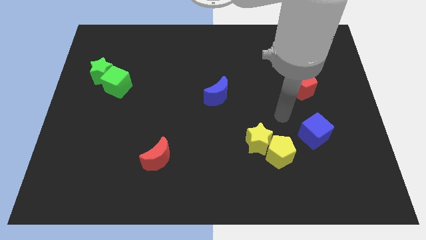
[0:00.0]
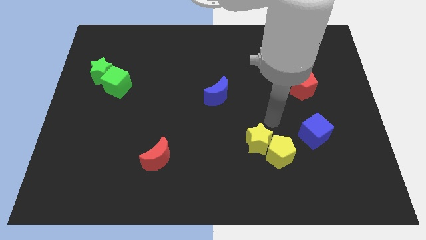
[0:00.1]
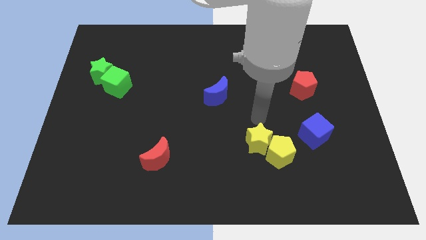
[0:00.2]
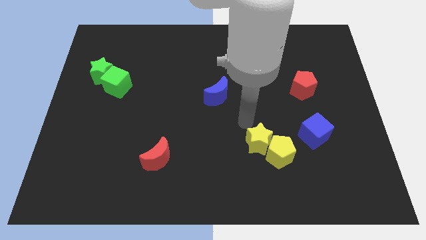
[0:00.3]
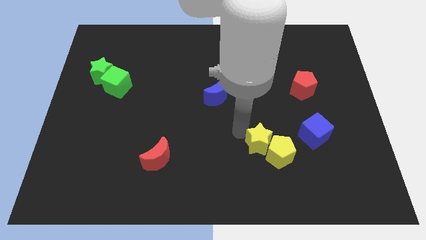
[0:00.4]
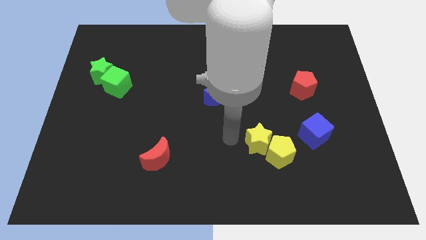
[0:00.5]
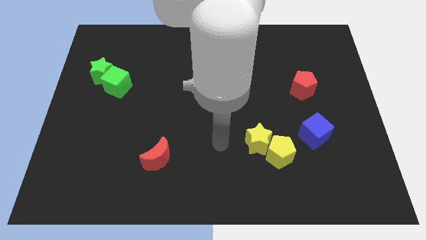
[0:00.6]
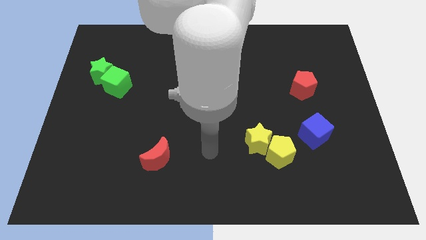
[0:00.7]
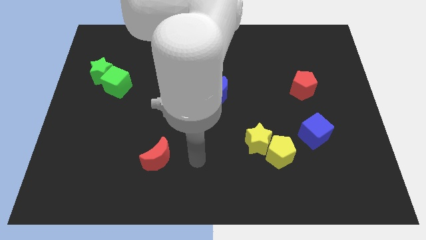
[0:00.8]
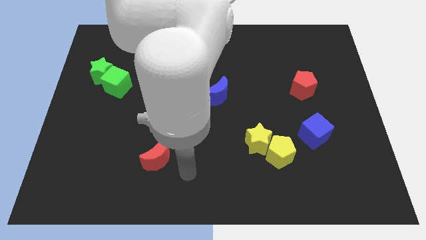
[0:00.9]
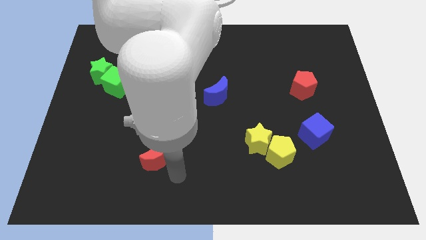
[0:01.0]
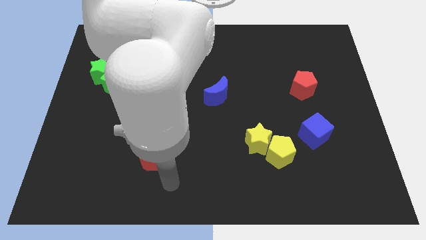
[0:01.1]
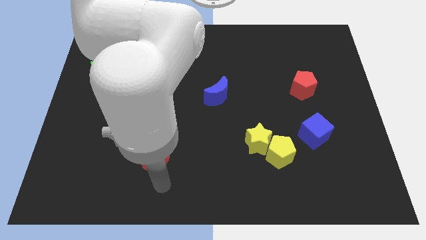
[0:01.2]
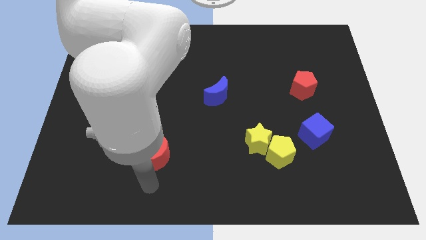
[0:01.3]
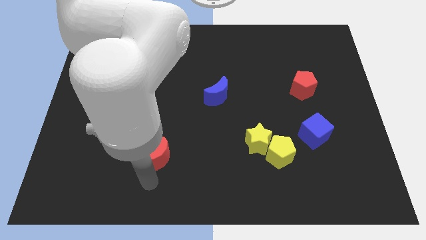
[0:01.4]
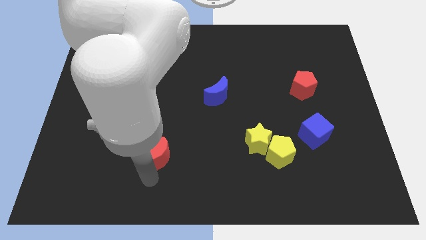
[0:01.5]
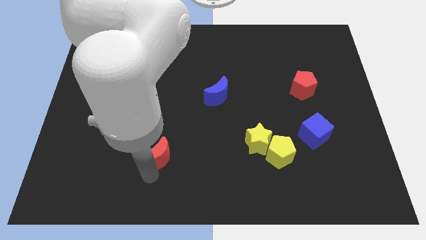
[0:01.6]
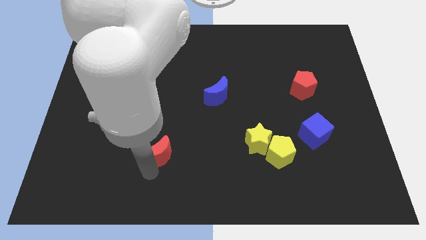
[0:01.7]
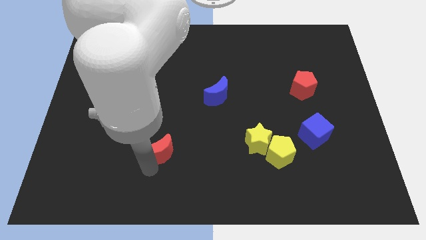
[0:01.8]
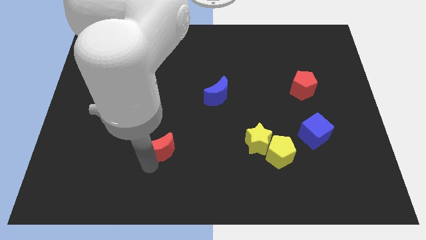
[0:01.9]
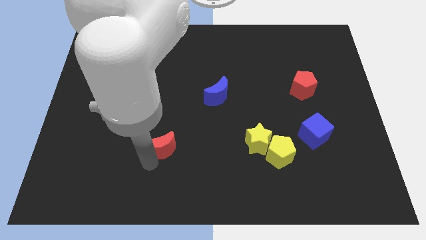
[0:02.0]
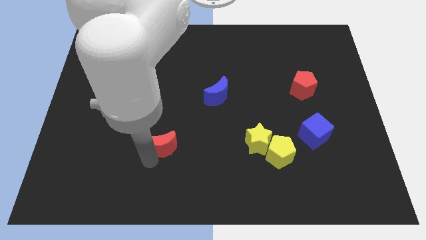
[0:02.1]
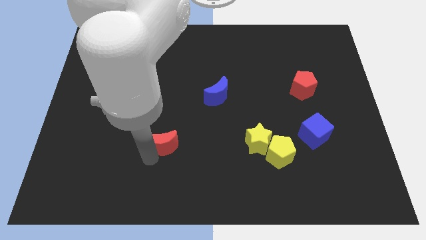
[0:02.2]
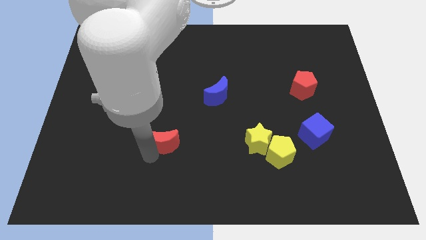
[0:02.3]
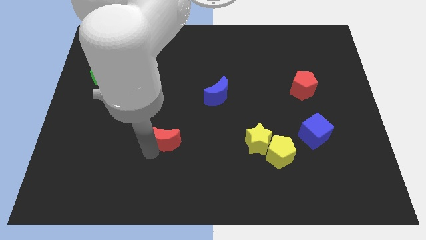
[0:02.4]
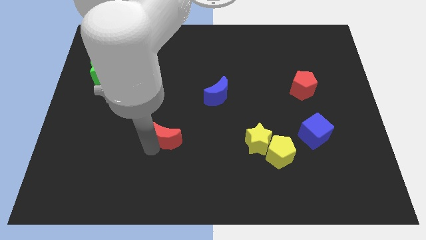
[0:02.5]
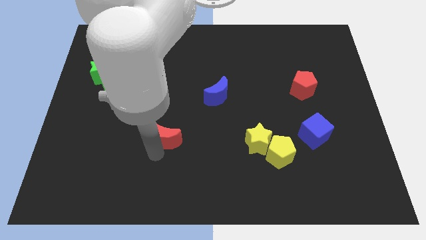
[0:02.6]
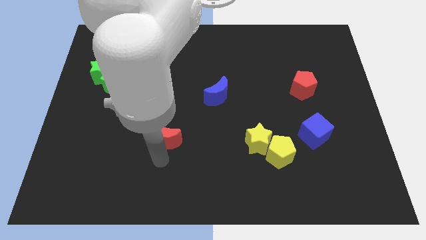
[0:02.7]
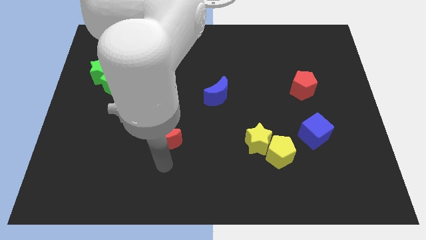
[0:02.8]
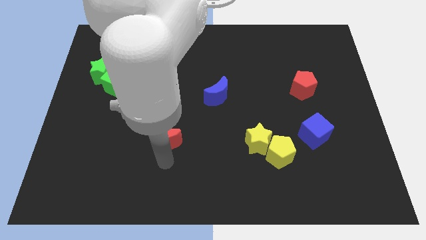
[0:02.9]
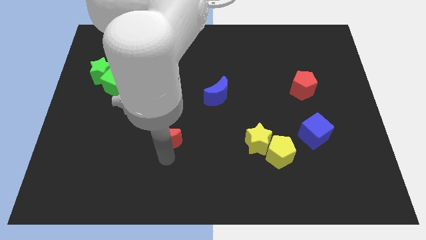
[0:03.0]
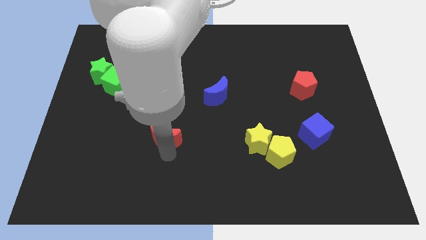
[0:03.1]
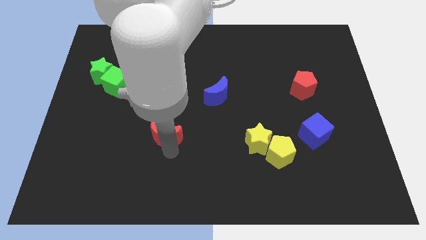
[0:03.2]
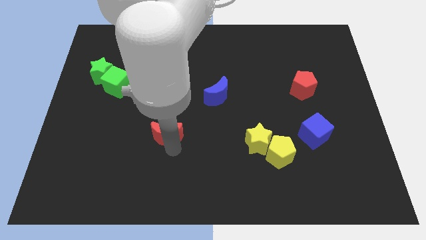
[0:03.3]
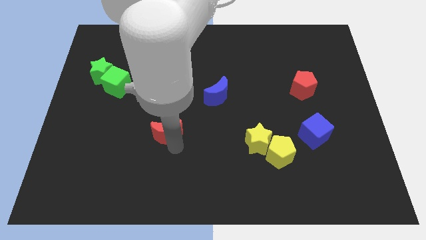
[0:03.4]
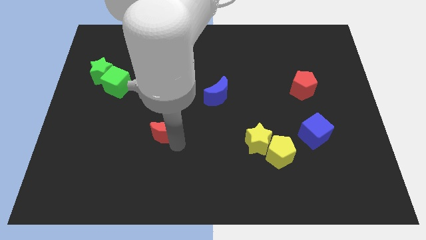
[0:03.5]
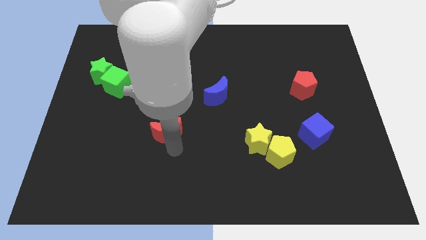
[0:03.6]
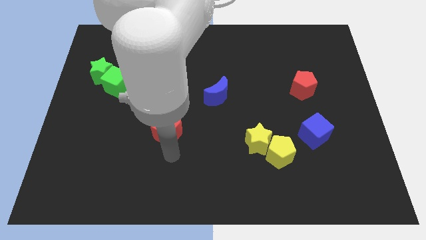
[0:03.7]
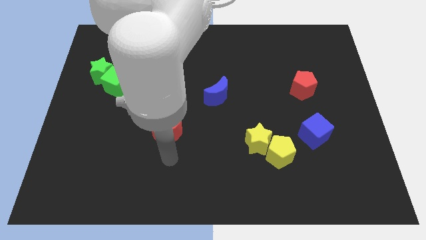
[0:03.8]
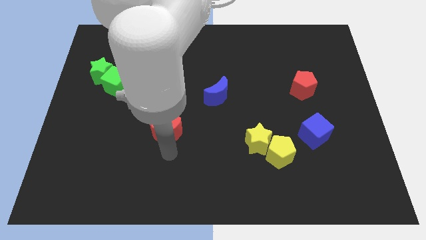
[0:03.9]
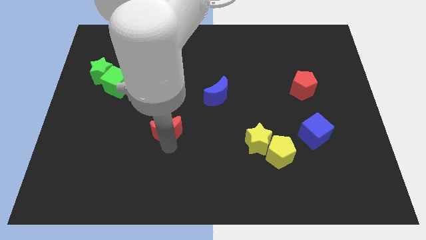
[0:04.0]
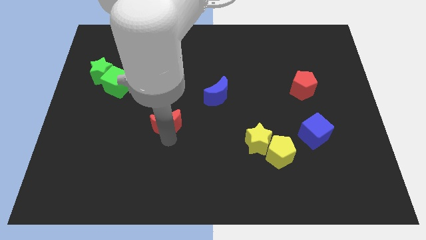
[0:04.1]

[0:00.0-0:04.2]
slide the red moon a bit upwards

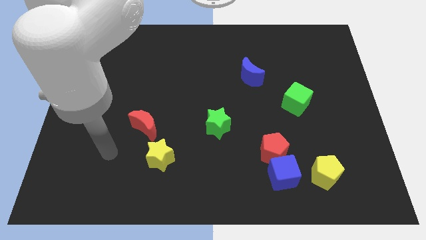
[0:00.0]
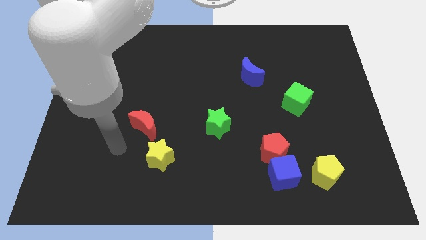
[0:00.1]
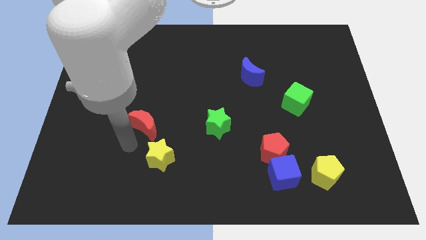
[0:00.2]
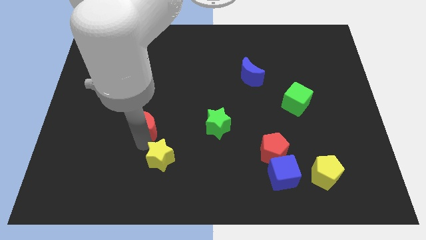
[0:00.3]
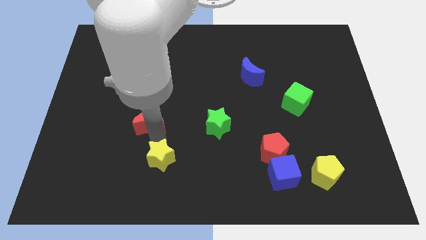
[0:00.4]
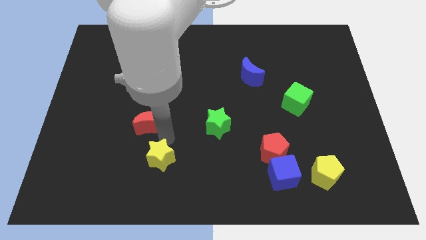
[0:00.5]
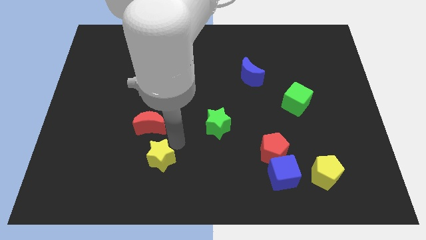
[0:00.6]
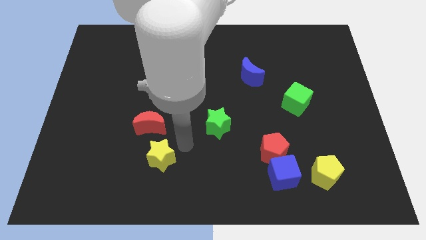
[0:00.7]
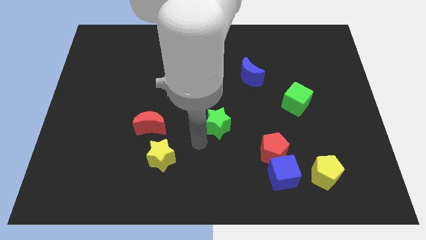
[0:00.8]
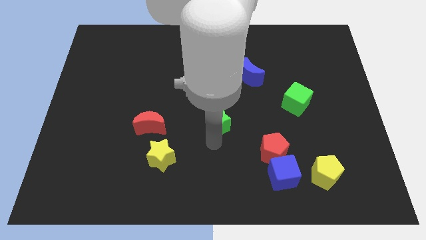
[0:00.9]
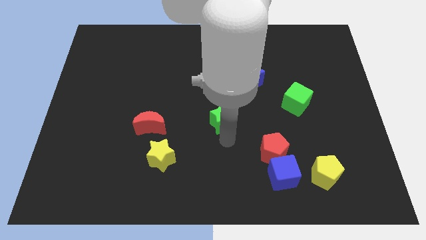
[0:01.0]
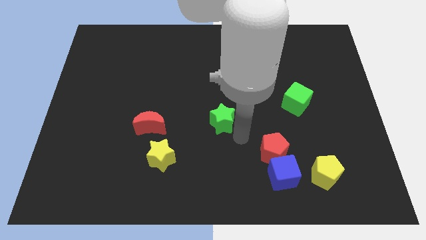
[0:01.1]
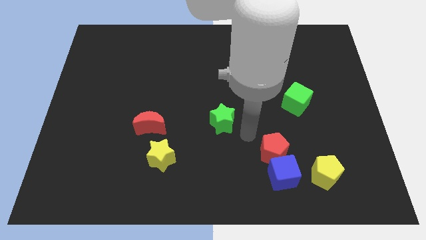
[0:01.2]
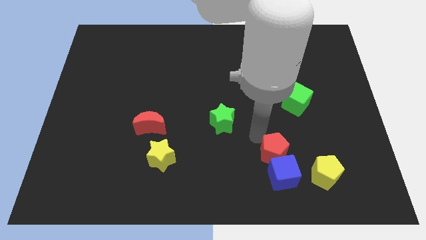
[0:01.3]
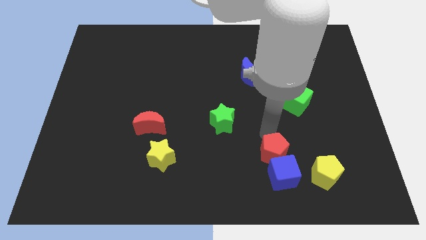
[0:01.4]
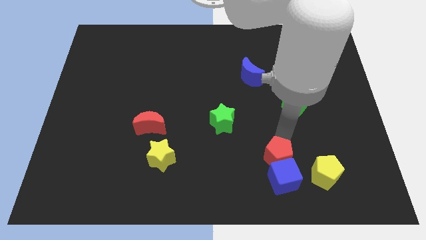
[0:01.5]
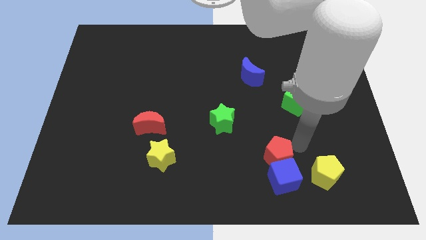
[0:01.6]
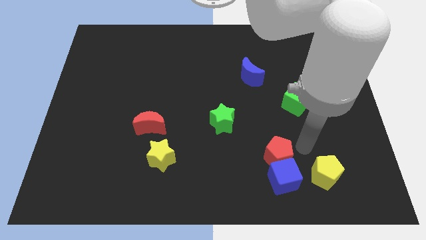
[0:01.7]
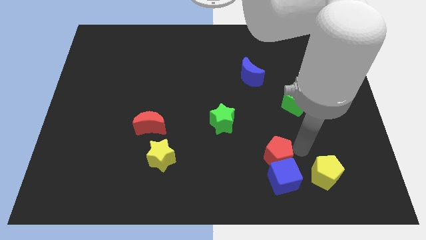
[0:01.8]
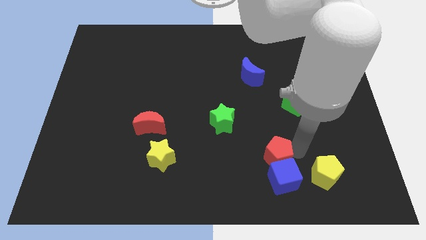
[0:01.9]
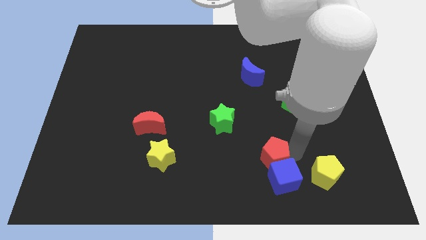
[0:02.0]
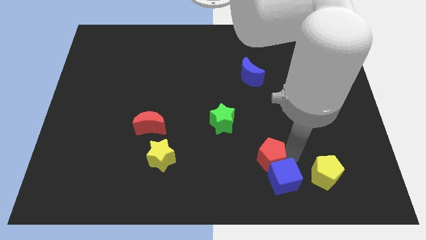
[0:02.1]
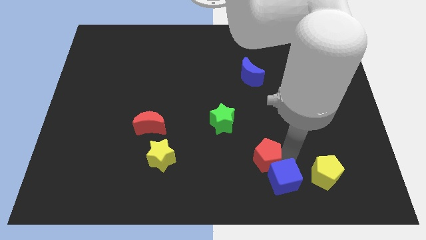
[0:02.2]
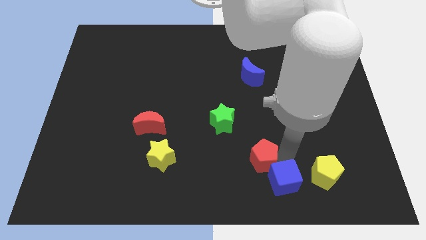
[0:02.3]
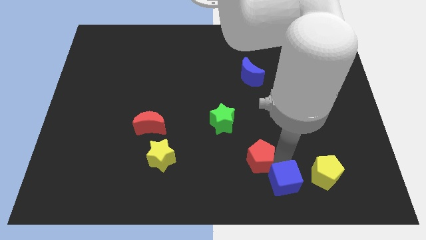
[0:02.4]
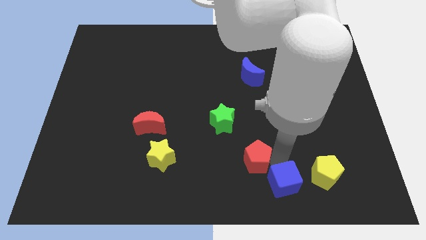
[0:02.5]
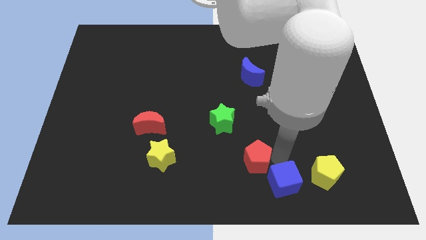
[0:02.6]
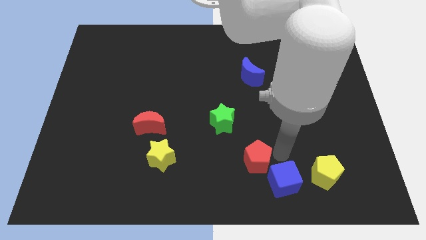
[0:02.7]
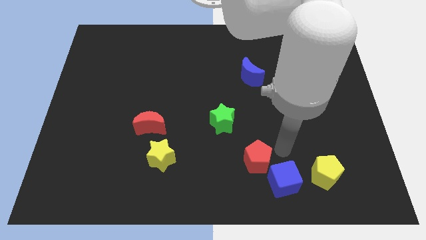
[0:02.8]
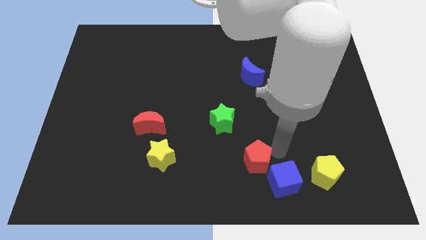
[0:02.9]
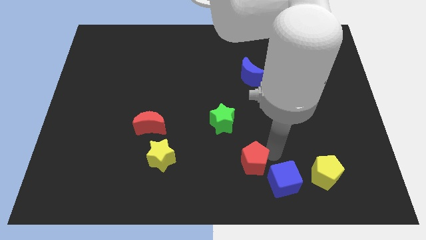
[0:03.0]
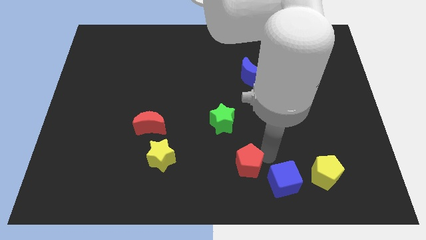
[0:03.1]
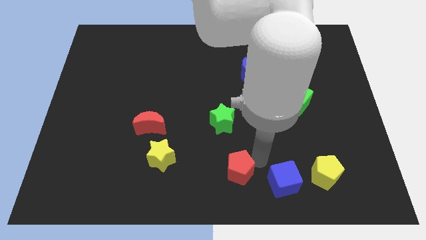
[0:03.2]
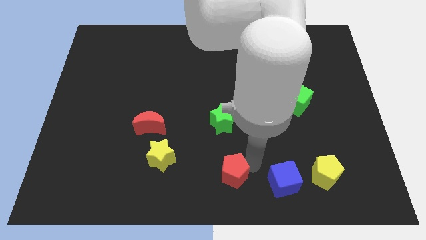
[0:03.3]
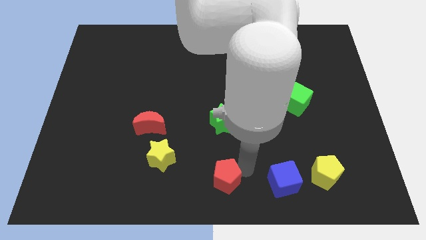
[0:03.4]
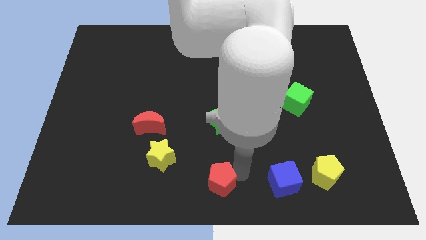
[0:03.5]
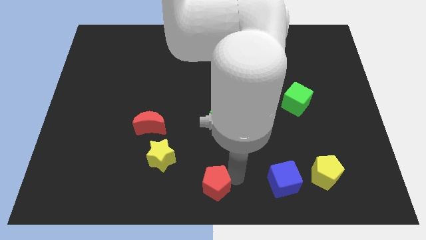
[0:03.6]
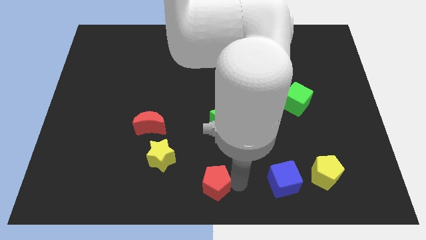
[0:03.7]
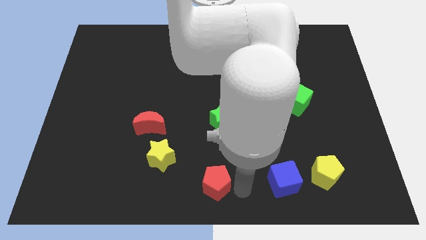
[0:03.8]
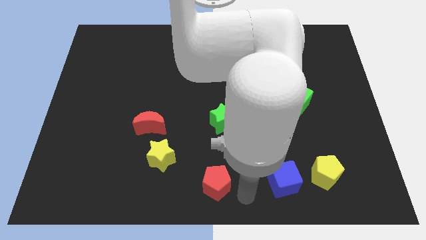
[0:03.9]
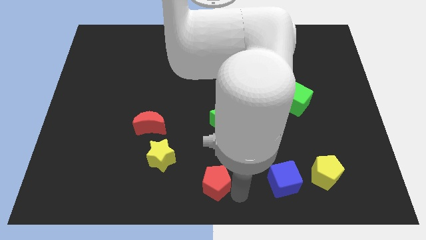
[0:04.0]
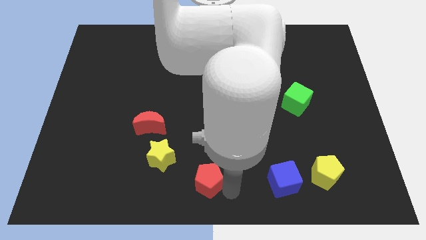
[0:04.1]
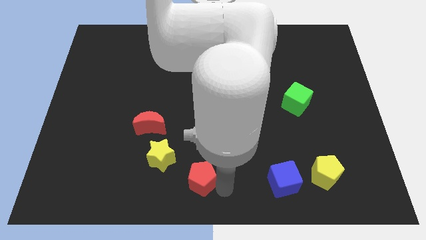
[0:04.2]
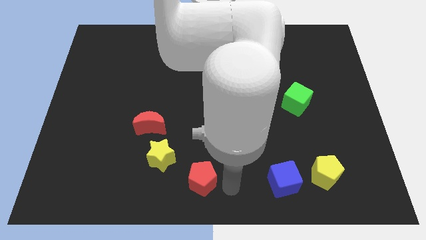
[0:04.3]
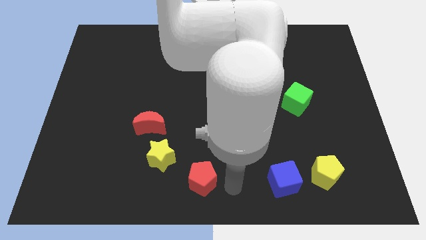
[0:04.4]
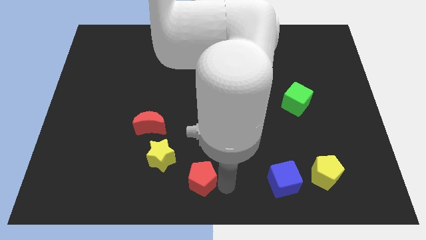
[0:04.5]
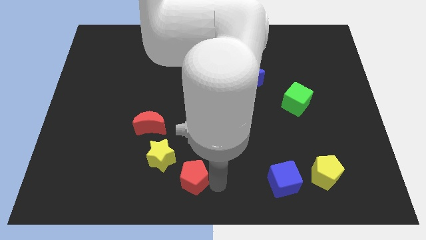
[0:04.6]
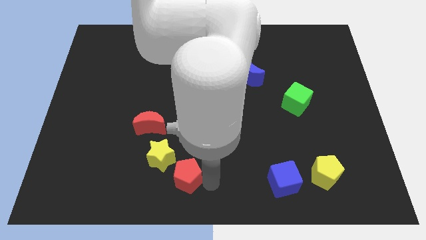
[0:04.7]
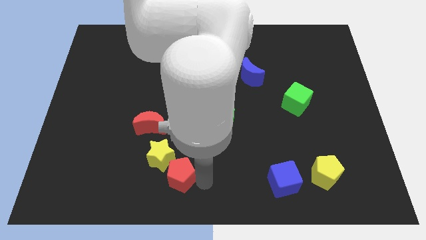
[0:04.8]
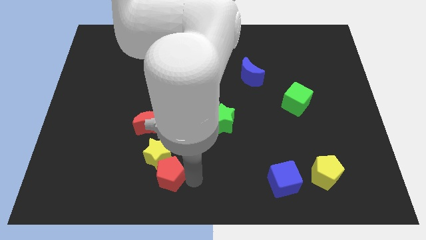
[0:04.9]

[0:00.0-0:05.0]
slide the red pentagon to the left
